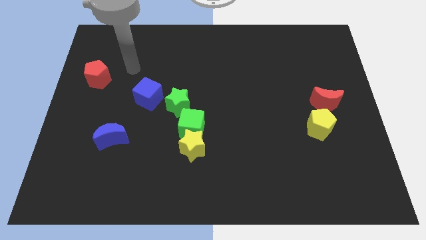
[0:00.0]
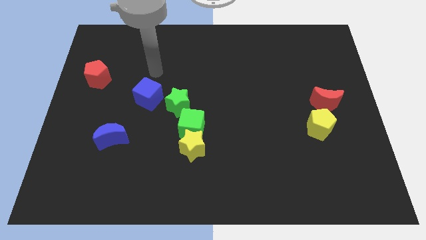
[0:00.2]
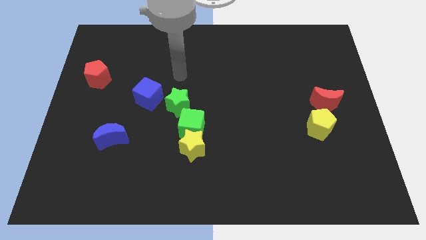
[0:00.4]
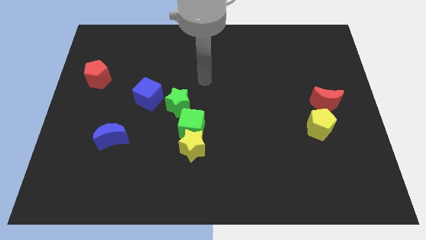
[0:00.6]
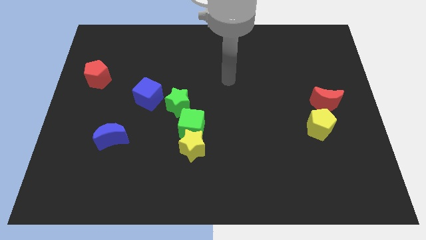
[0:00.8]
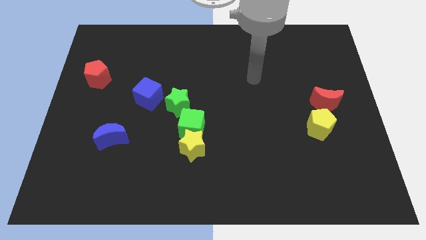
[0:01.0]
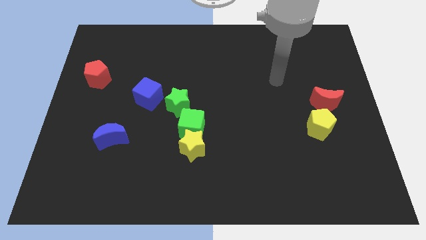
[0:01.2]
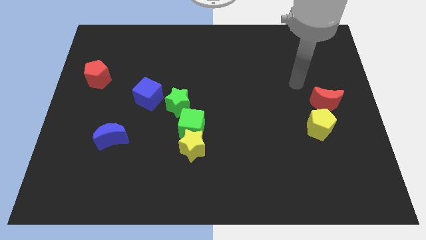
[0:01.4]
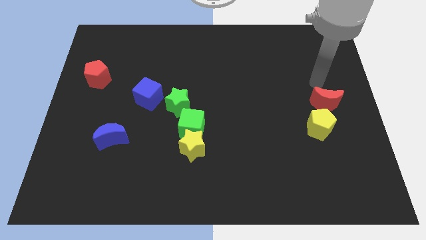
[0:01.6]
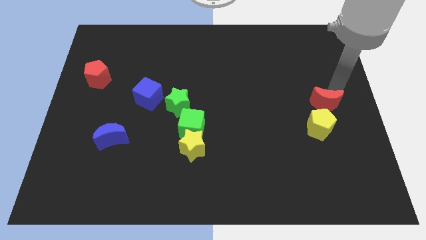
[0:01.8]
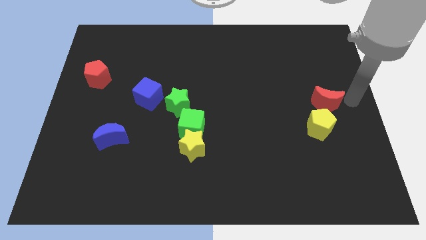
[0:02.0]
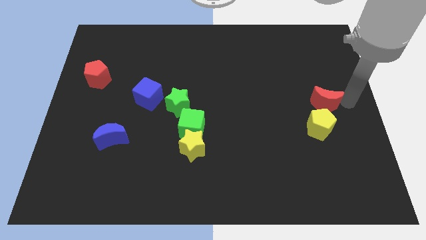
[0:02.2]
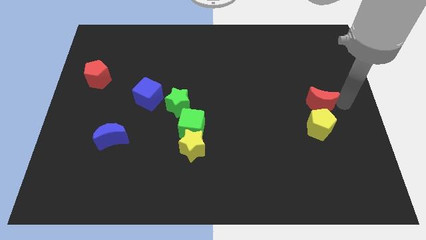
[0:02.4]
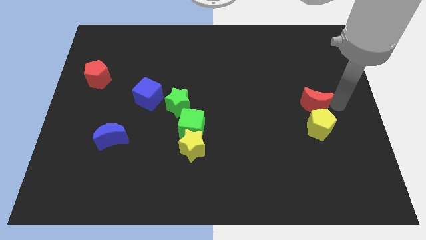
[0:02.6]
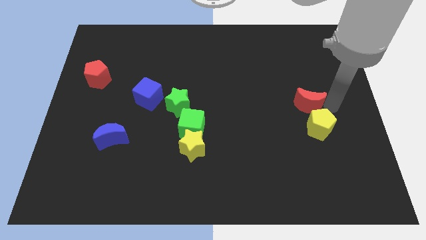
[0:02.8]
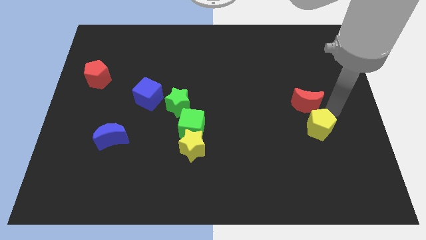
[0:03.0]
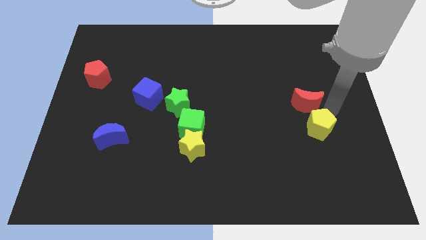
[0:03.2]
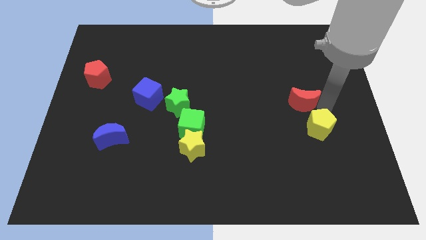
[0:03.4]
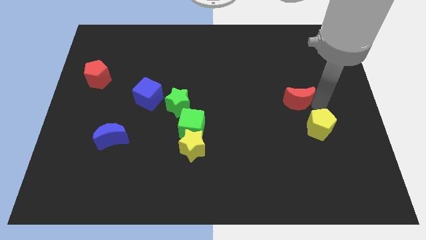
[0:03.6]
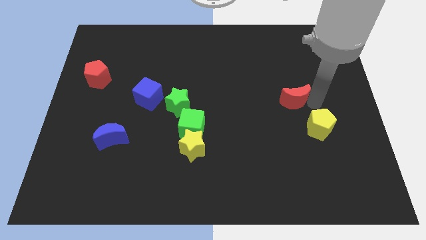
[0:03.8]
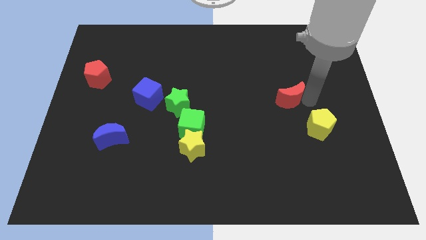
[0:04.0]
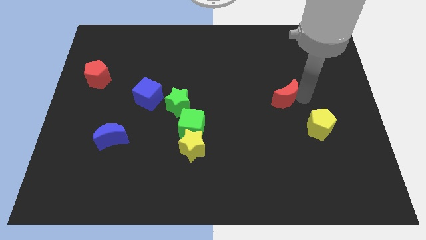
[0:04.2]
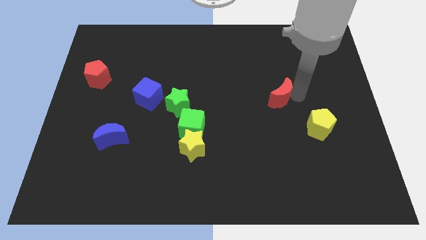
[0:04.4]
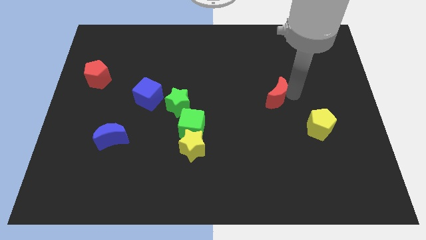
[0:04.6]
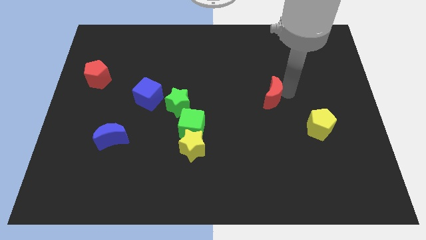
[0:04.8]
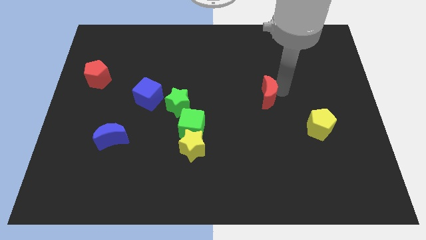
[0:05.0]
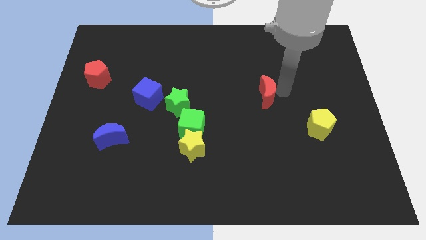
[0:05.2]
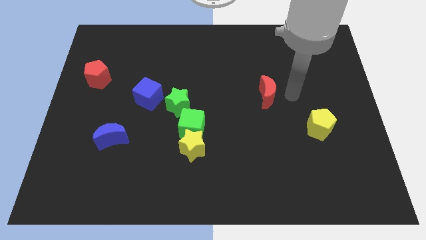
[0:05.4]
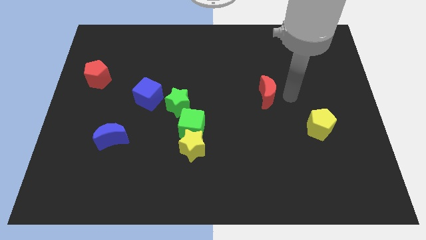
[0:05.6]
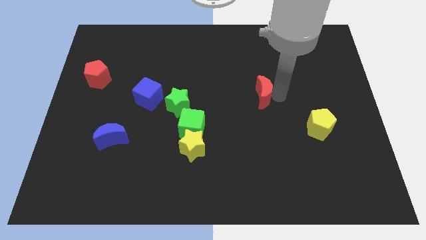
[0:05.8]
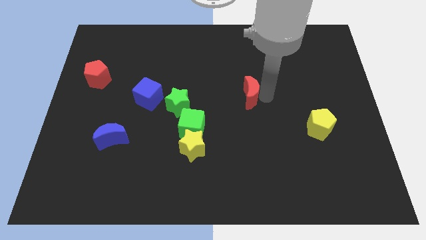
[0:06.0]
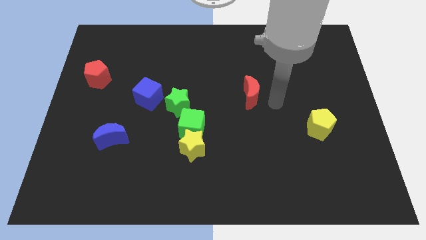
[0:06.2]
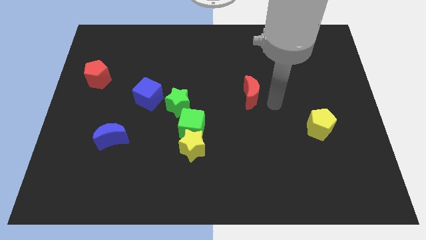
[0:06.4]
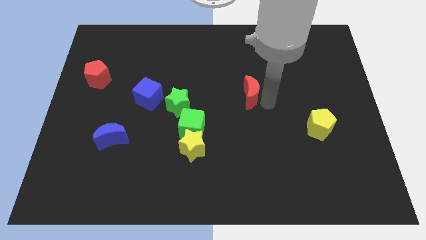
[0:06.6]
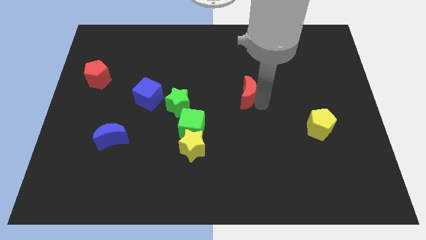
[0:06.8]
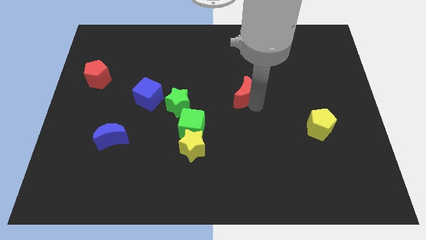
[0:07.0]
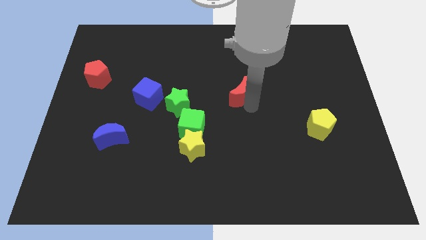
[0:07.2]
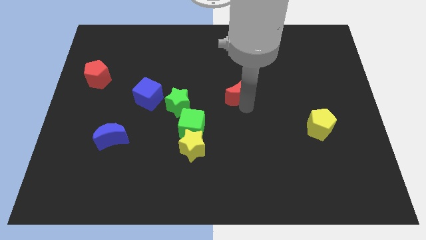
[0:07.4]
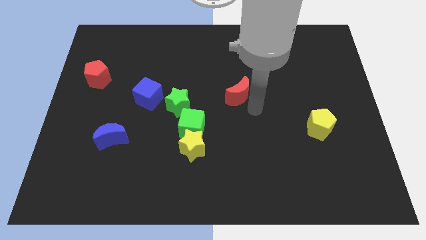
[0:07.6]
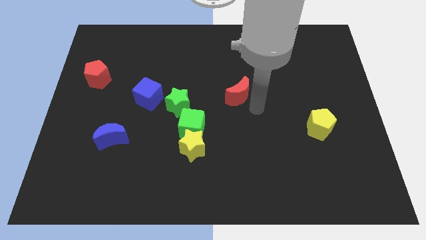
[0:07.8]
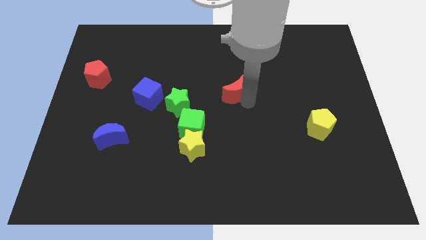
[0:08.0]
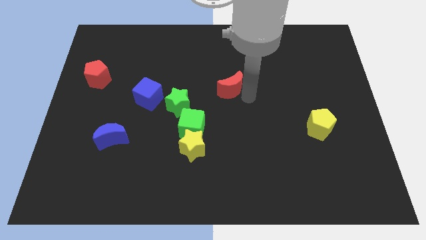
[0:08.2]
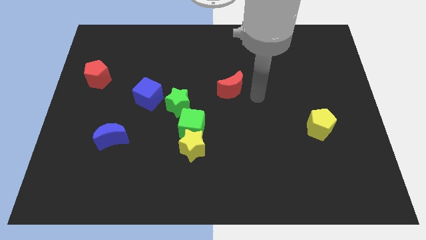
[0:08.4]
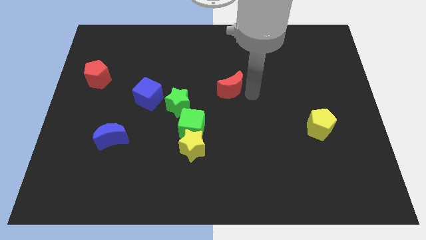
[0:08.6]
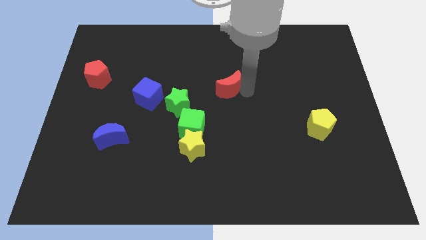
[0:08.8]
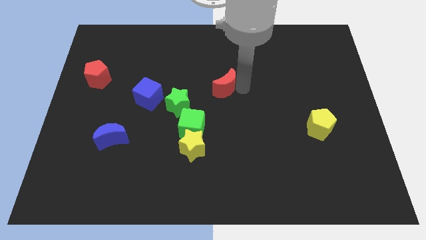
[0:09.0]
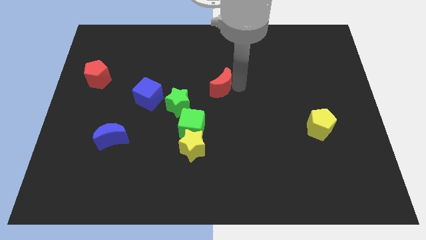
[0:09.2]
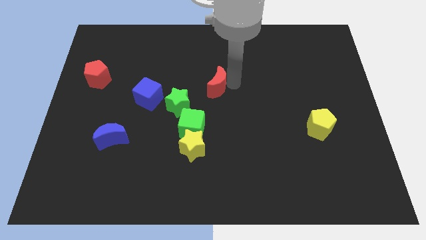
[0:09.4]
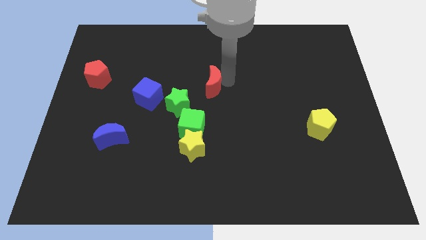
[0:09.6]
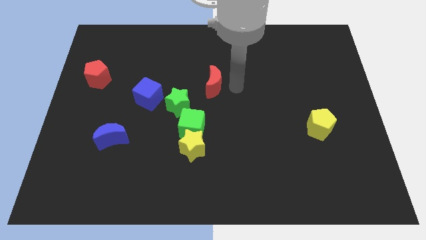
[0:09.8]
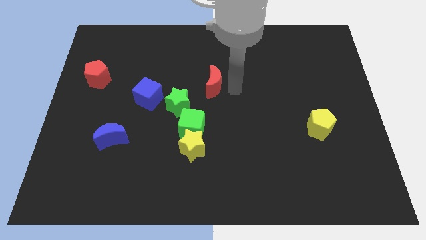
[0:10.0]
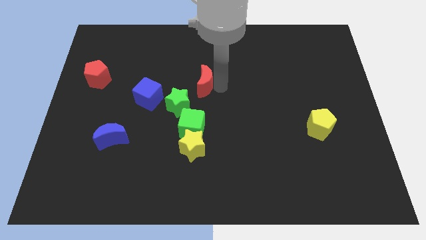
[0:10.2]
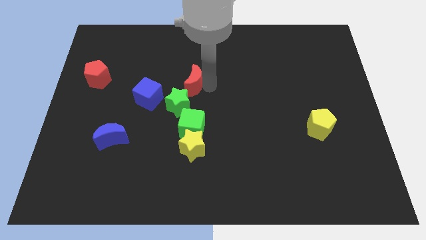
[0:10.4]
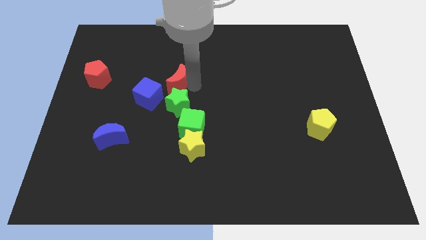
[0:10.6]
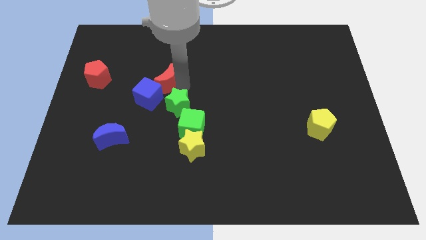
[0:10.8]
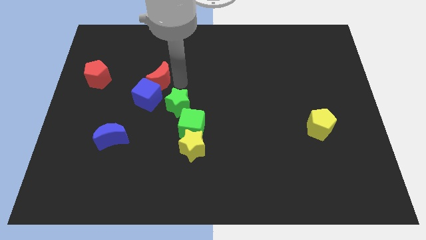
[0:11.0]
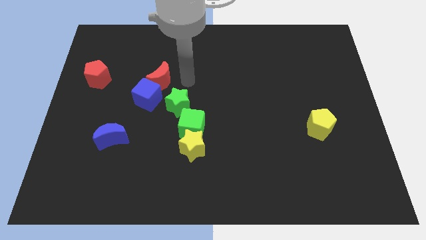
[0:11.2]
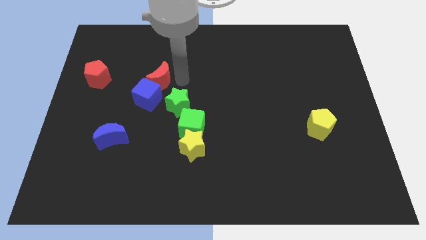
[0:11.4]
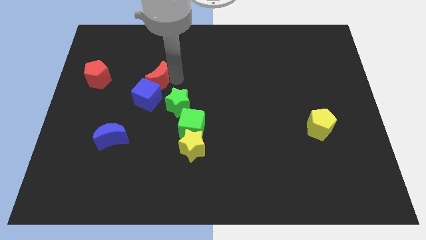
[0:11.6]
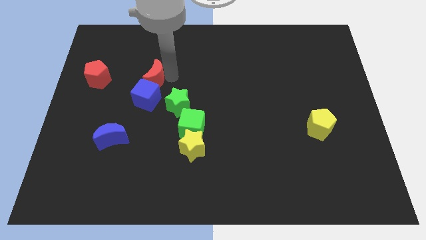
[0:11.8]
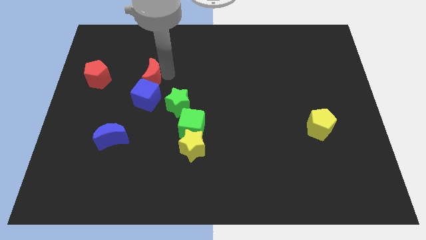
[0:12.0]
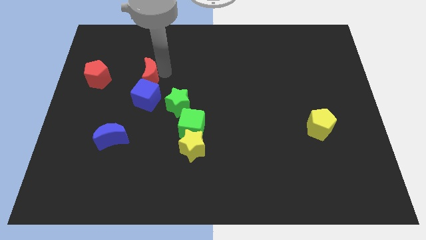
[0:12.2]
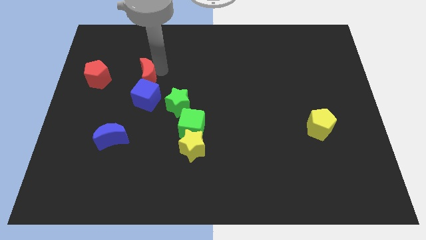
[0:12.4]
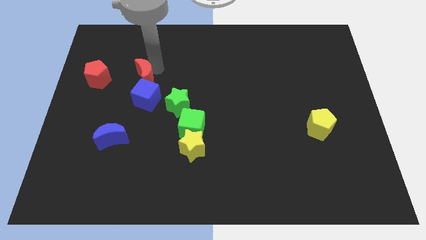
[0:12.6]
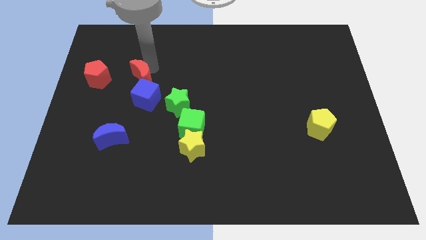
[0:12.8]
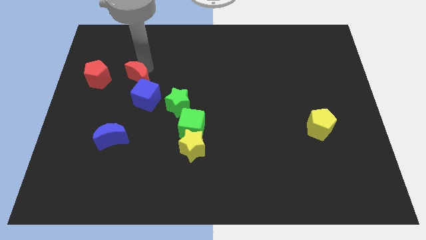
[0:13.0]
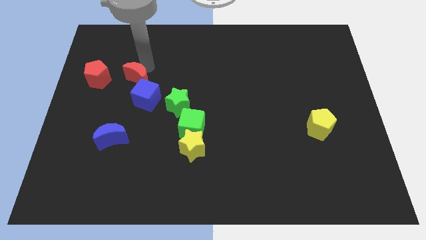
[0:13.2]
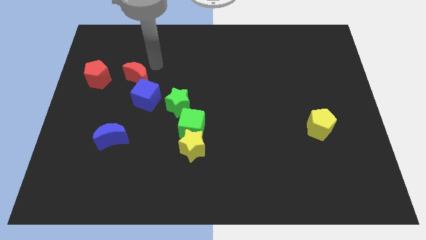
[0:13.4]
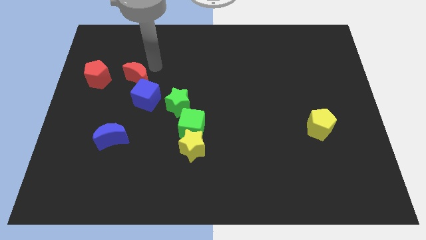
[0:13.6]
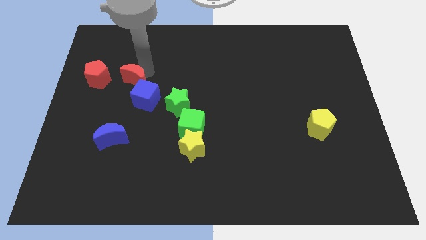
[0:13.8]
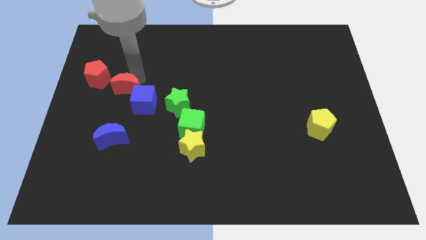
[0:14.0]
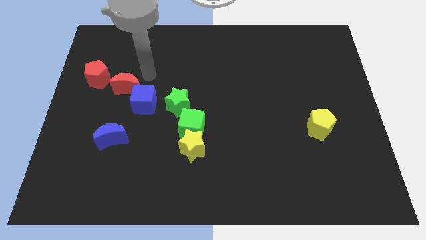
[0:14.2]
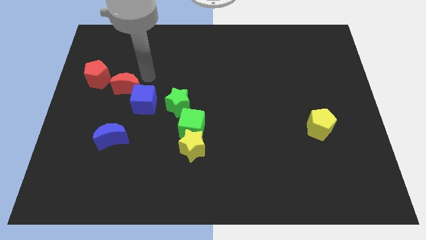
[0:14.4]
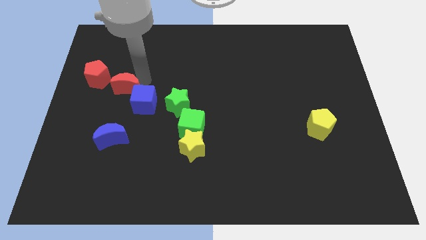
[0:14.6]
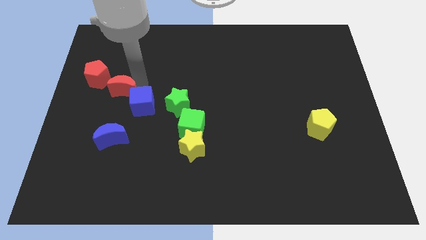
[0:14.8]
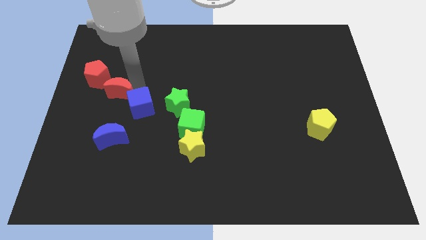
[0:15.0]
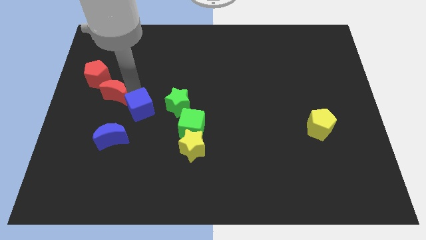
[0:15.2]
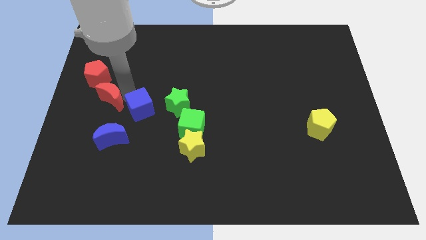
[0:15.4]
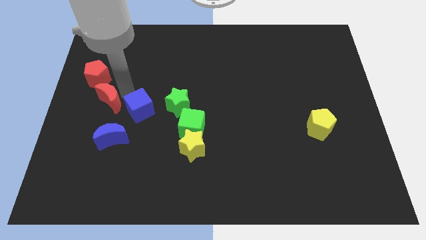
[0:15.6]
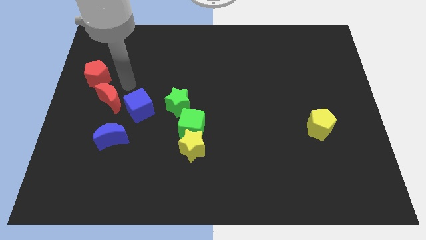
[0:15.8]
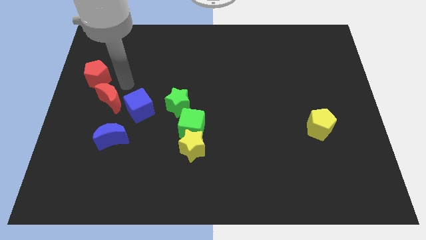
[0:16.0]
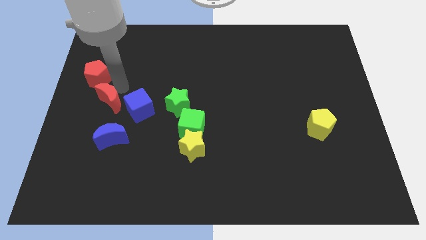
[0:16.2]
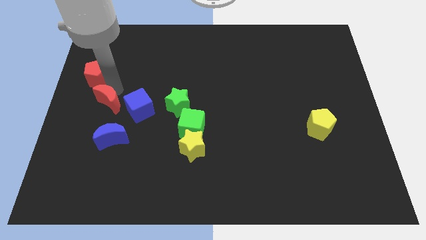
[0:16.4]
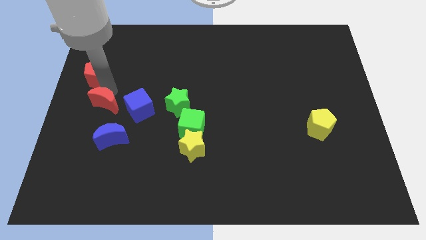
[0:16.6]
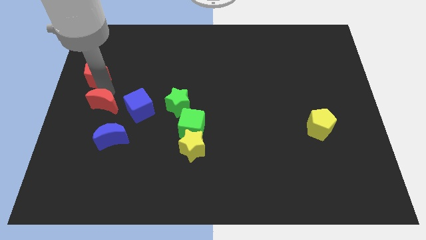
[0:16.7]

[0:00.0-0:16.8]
slide the red moon to the top left side of the blue moon
